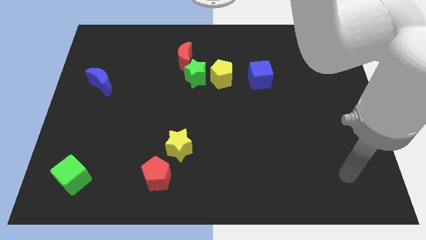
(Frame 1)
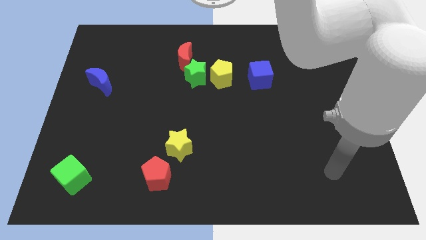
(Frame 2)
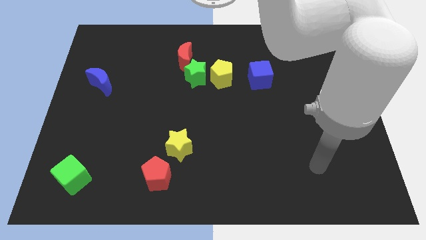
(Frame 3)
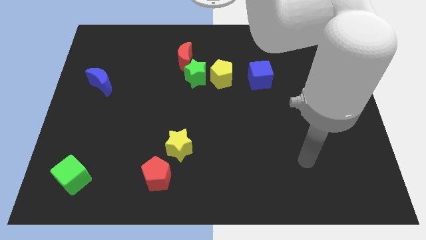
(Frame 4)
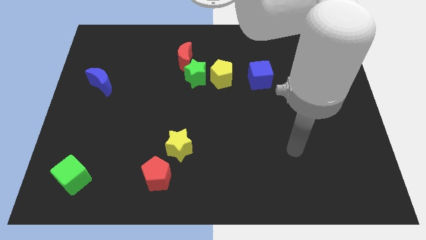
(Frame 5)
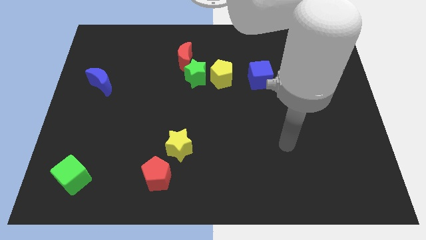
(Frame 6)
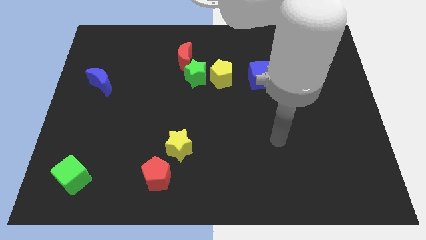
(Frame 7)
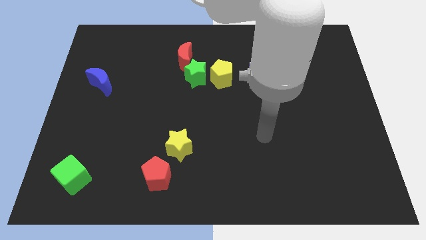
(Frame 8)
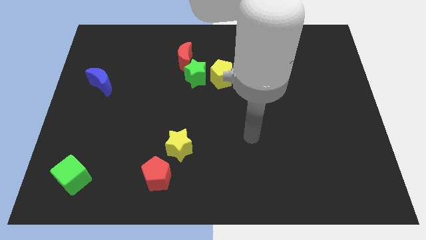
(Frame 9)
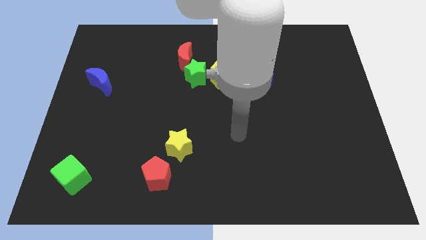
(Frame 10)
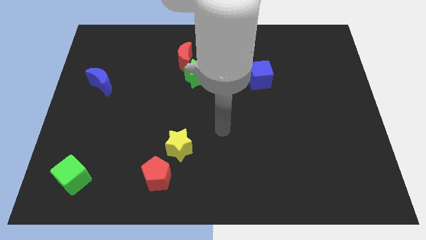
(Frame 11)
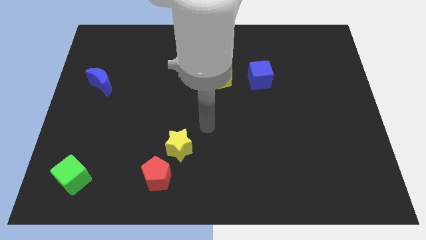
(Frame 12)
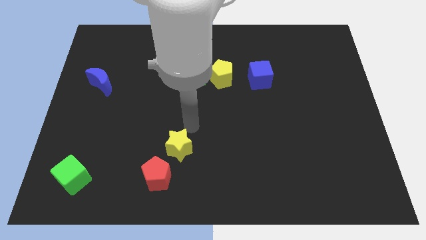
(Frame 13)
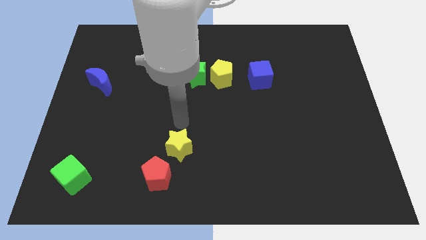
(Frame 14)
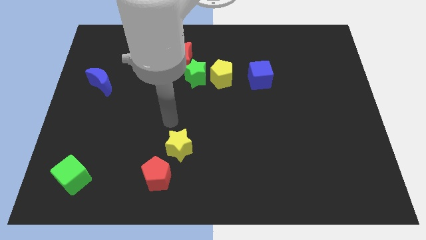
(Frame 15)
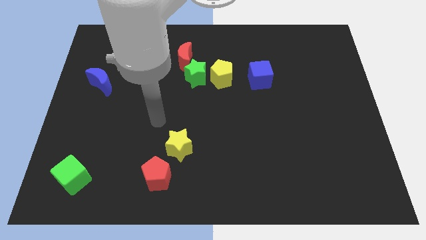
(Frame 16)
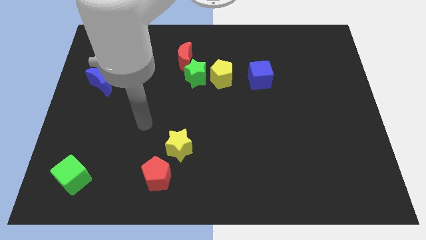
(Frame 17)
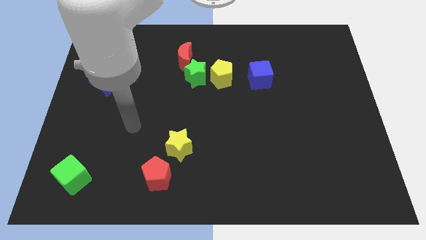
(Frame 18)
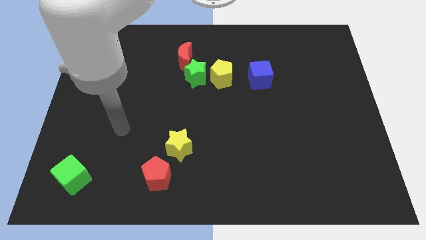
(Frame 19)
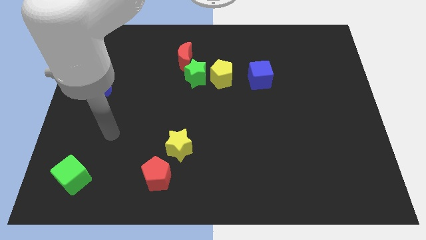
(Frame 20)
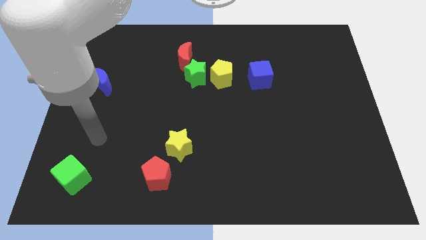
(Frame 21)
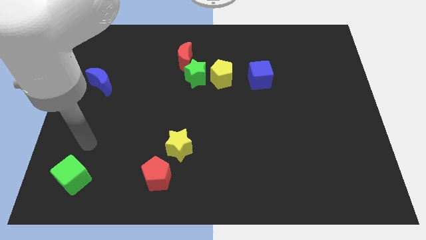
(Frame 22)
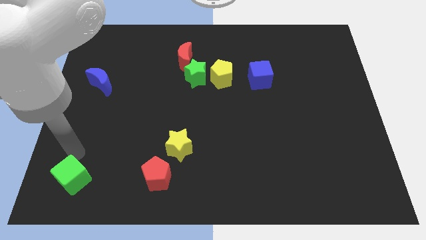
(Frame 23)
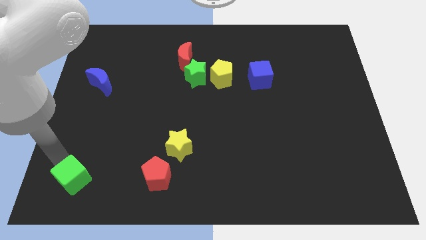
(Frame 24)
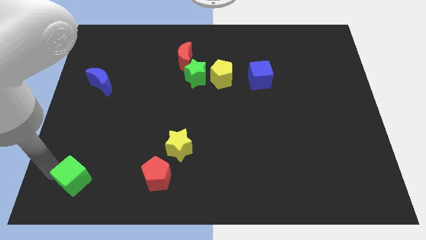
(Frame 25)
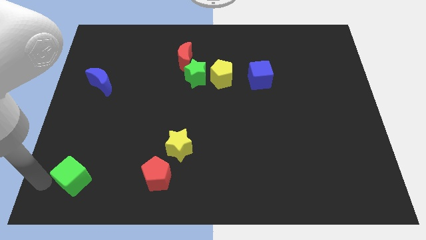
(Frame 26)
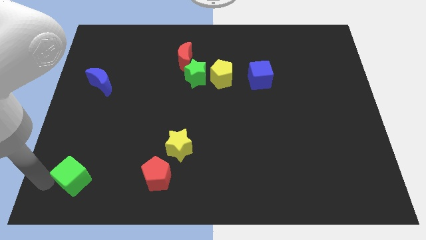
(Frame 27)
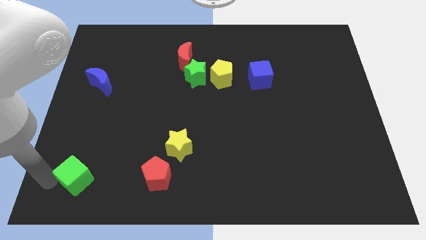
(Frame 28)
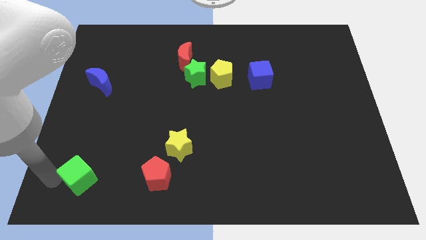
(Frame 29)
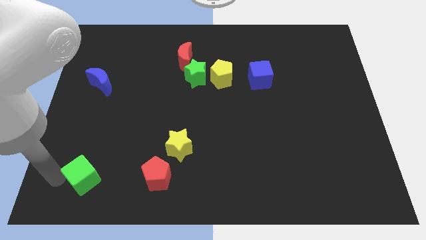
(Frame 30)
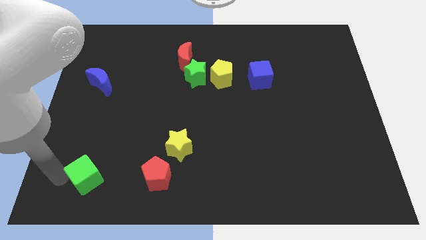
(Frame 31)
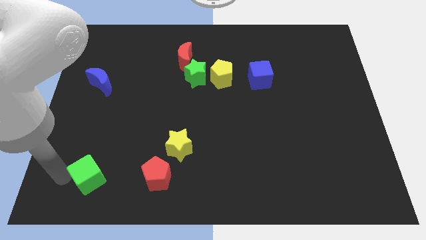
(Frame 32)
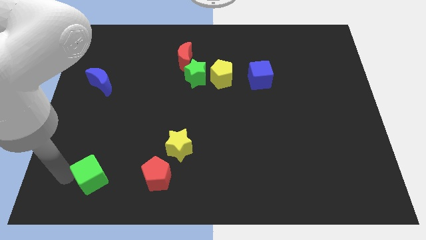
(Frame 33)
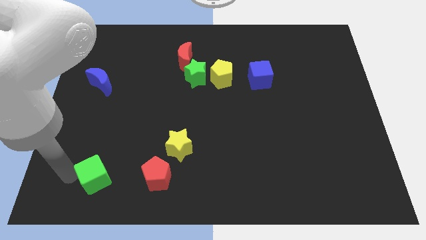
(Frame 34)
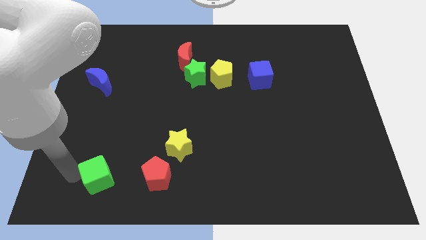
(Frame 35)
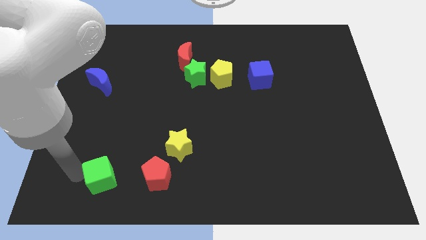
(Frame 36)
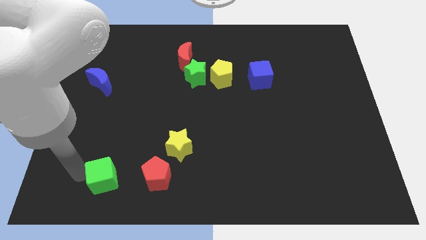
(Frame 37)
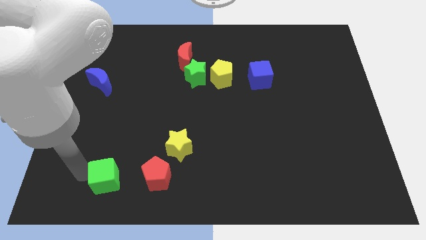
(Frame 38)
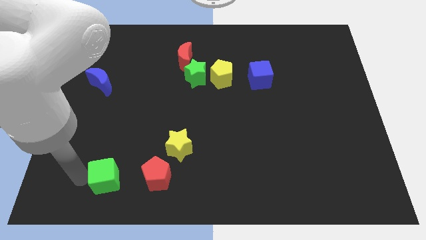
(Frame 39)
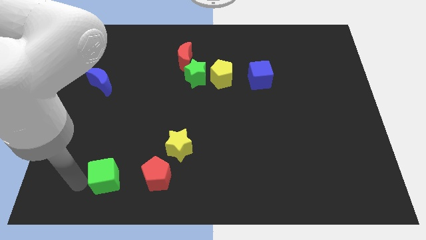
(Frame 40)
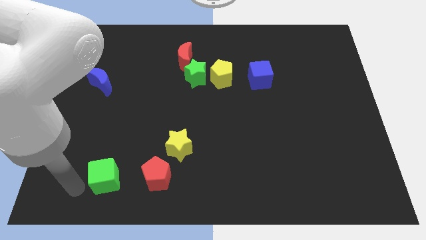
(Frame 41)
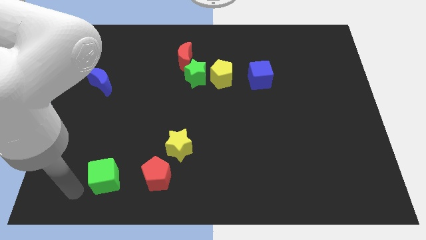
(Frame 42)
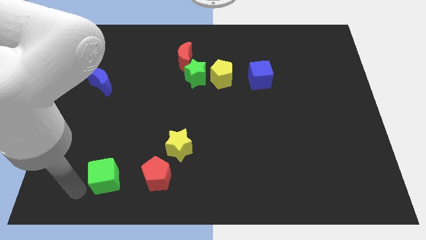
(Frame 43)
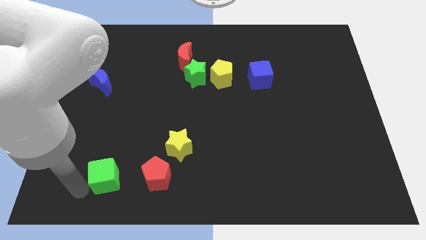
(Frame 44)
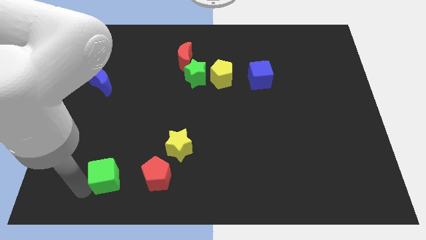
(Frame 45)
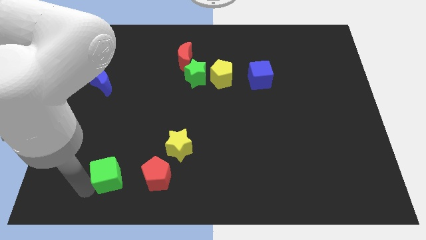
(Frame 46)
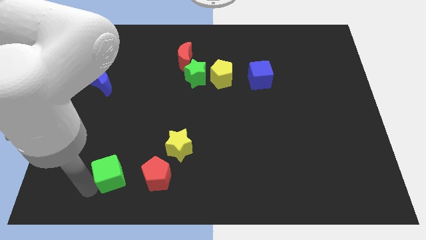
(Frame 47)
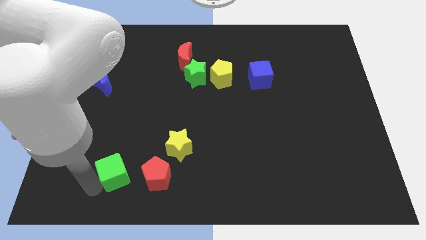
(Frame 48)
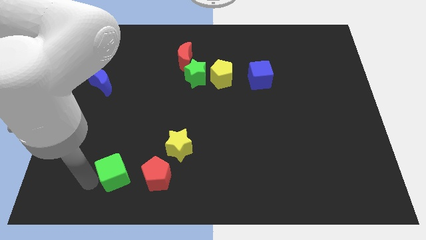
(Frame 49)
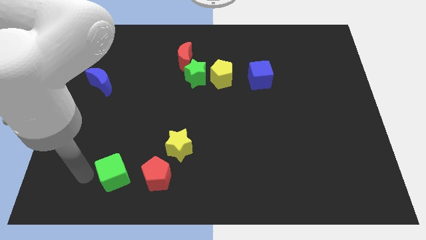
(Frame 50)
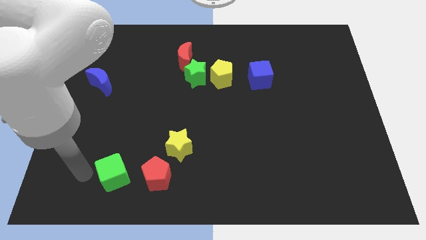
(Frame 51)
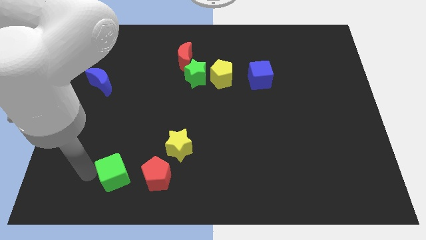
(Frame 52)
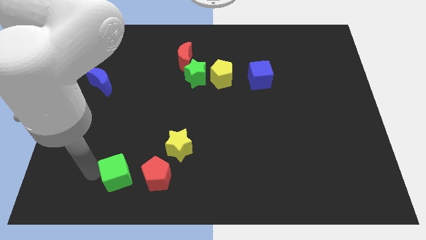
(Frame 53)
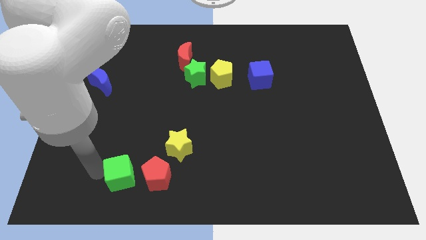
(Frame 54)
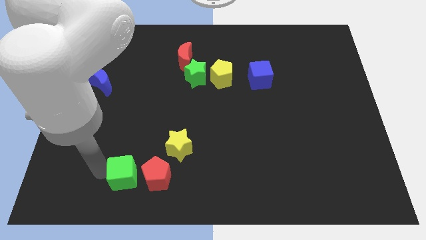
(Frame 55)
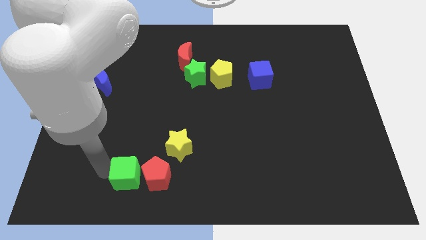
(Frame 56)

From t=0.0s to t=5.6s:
slide the green cube close to the red pentagon

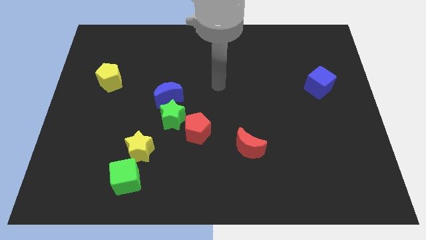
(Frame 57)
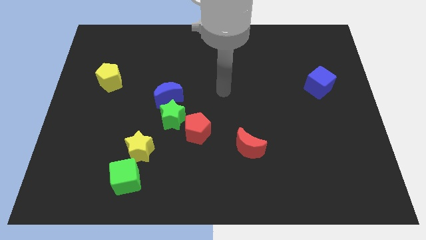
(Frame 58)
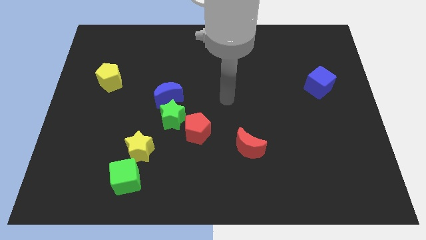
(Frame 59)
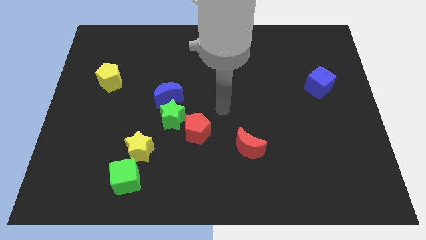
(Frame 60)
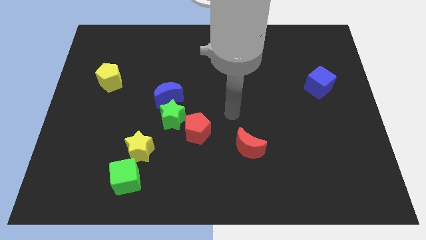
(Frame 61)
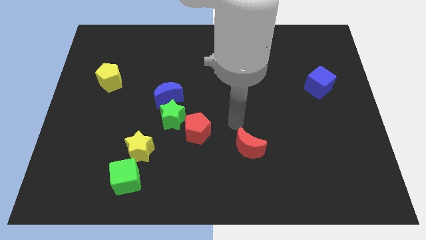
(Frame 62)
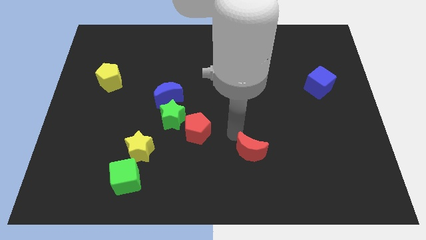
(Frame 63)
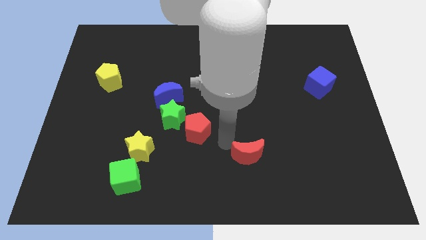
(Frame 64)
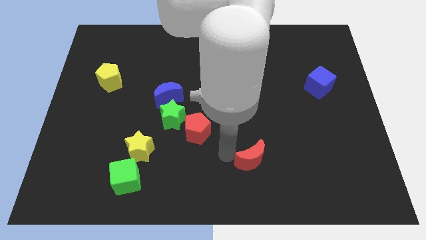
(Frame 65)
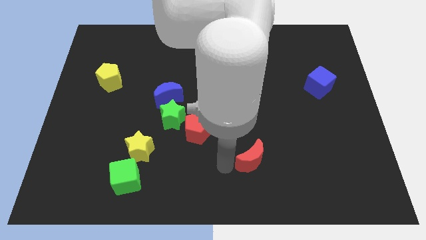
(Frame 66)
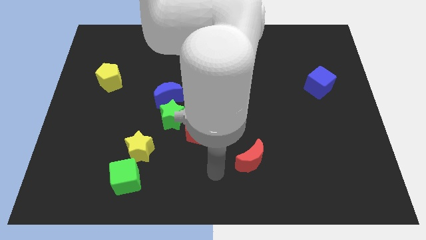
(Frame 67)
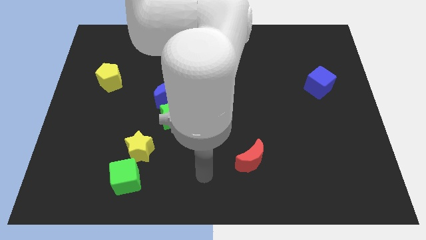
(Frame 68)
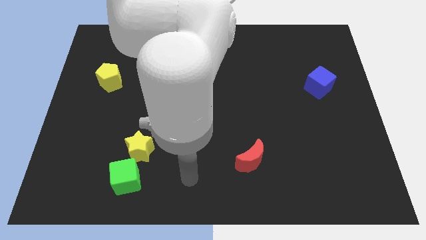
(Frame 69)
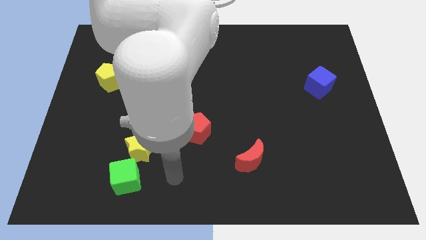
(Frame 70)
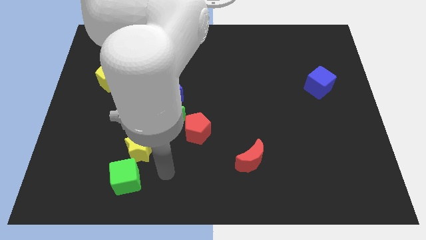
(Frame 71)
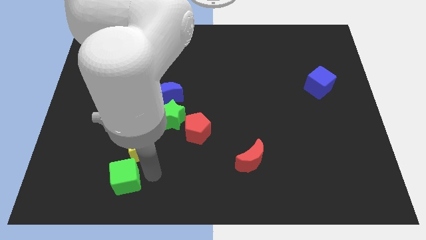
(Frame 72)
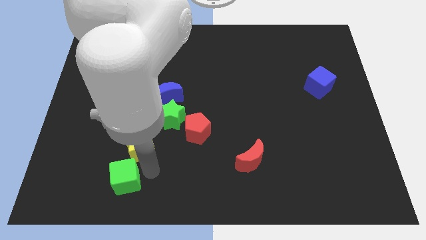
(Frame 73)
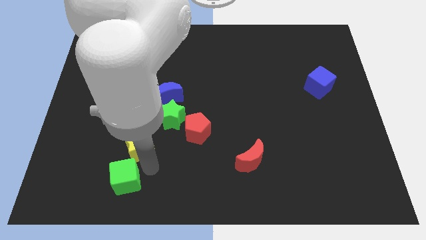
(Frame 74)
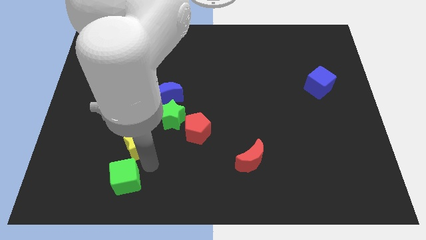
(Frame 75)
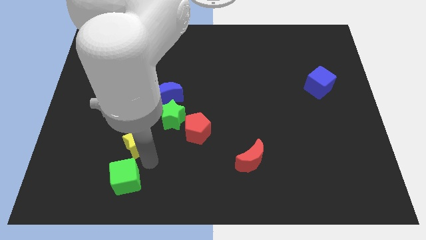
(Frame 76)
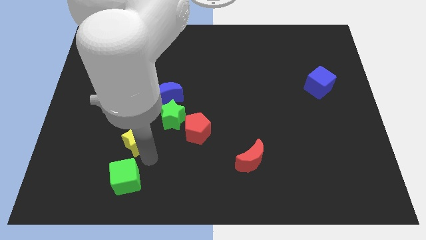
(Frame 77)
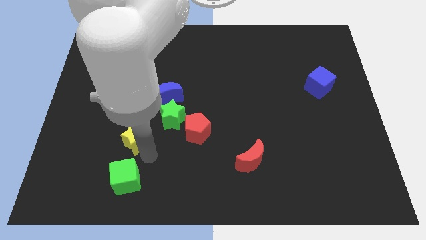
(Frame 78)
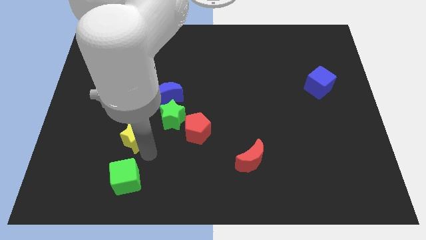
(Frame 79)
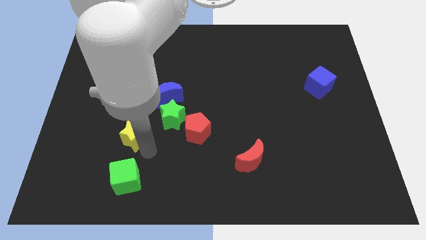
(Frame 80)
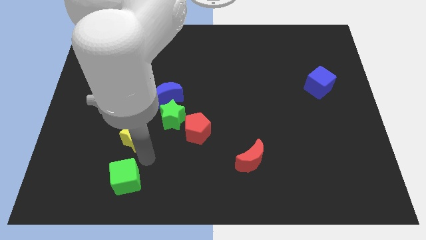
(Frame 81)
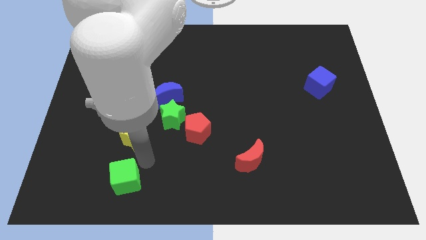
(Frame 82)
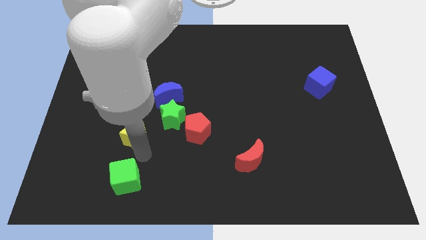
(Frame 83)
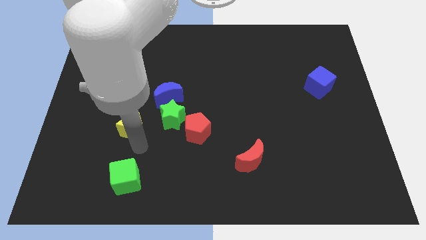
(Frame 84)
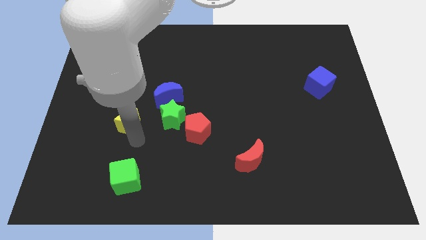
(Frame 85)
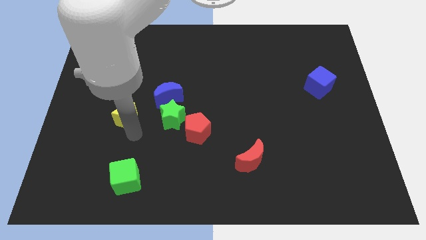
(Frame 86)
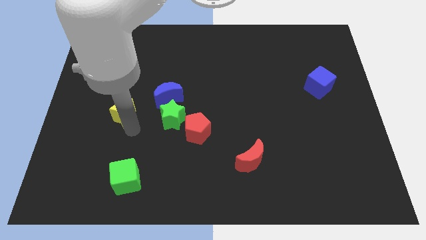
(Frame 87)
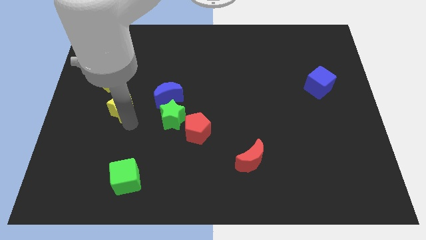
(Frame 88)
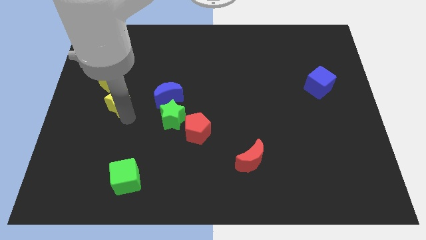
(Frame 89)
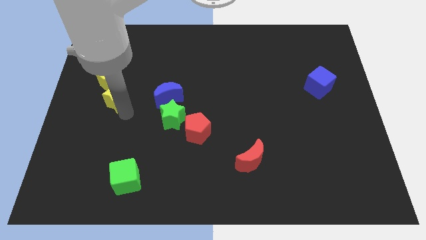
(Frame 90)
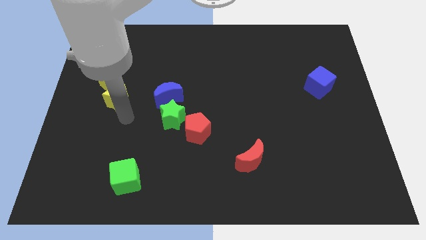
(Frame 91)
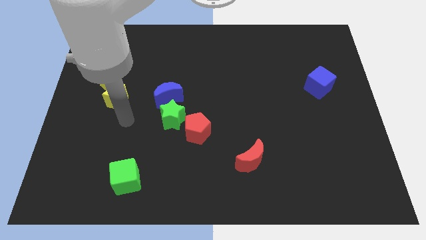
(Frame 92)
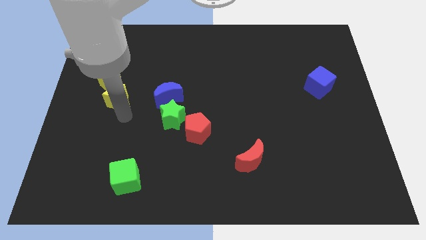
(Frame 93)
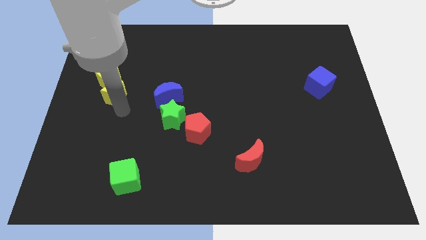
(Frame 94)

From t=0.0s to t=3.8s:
move the yellow star close to the yellow pentagon
